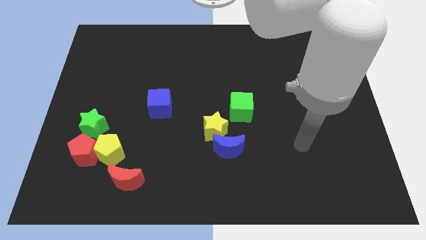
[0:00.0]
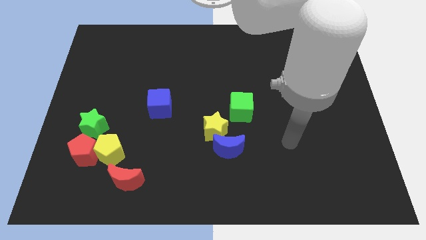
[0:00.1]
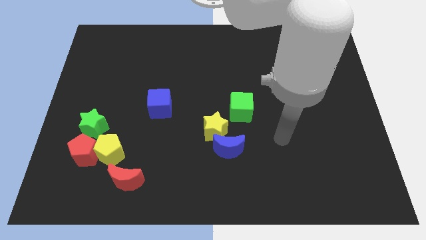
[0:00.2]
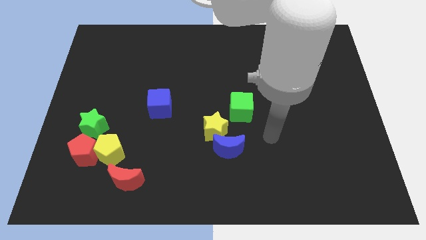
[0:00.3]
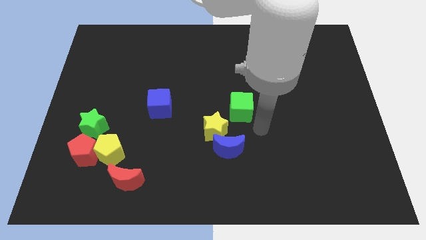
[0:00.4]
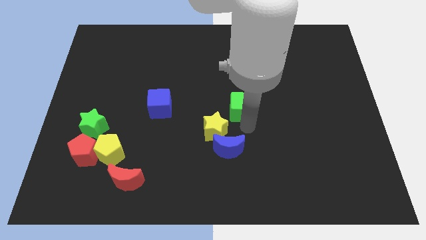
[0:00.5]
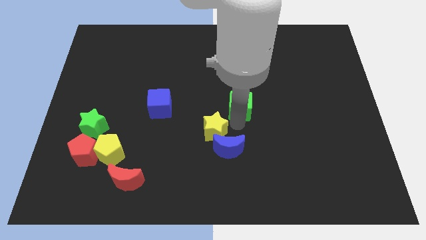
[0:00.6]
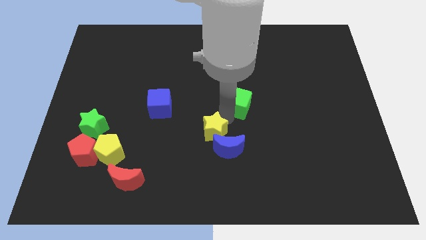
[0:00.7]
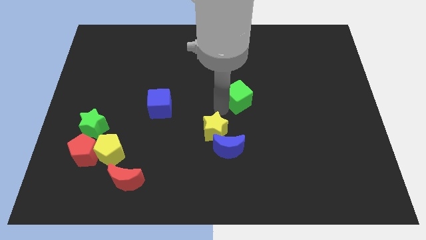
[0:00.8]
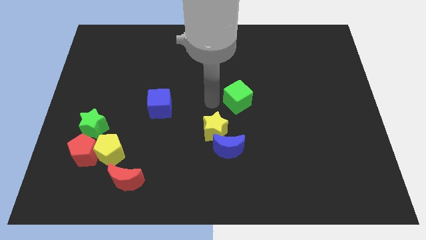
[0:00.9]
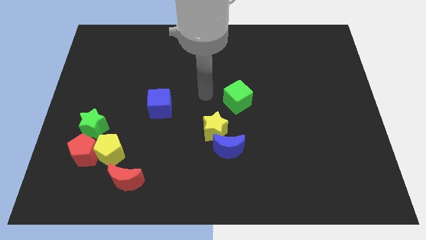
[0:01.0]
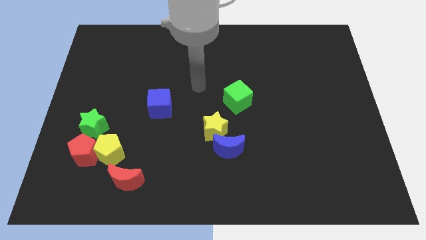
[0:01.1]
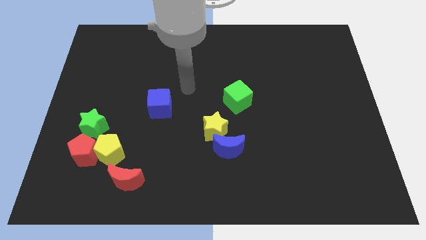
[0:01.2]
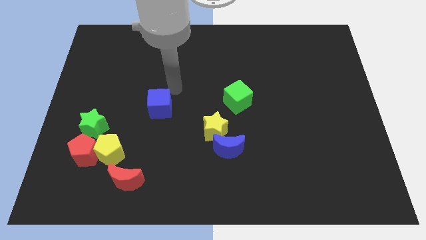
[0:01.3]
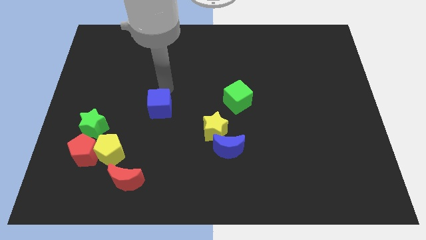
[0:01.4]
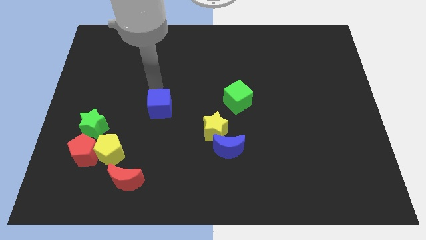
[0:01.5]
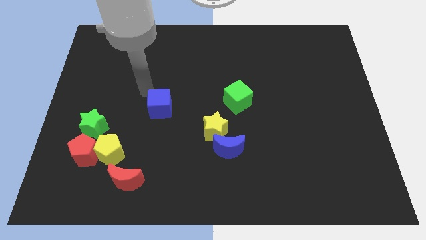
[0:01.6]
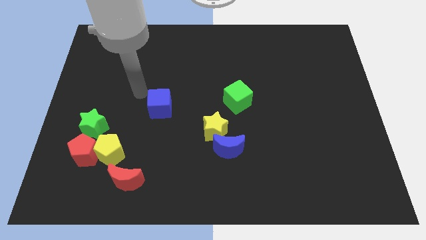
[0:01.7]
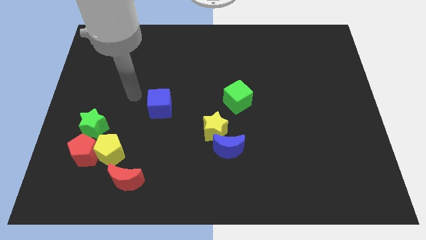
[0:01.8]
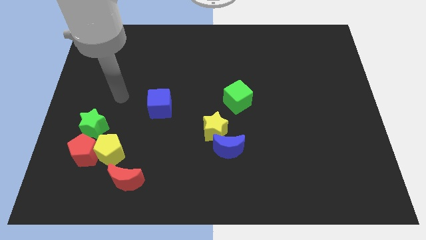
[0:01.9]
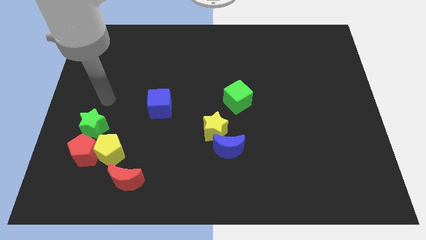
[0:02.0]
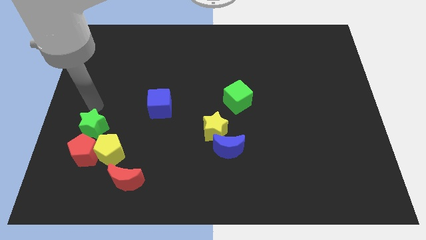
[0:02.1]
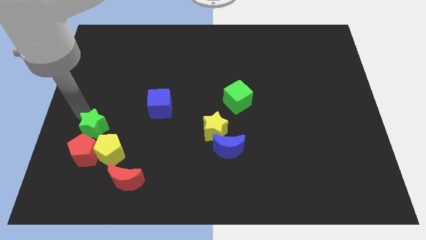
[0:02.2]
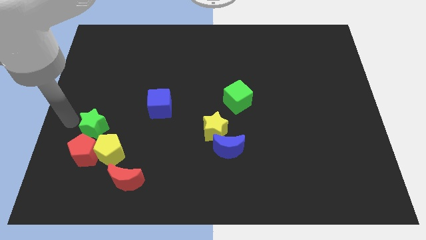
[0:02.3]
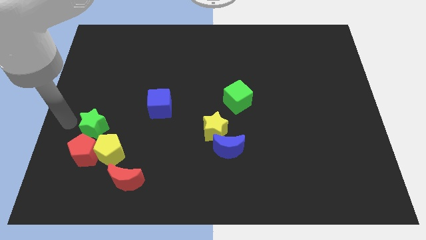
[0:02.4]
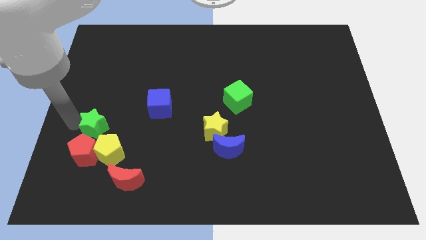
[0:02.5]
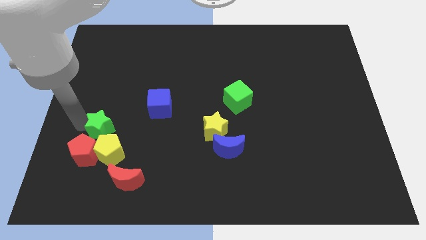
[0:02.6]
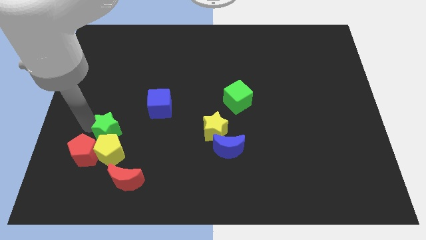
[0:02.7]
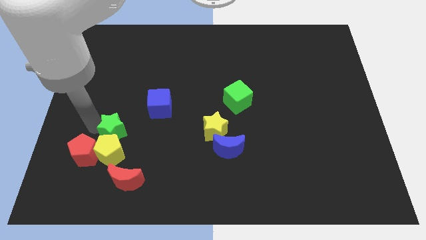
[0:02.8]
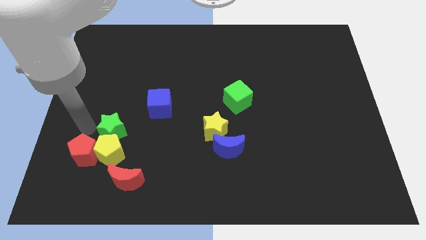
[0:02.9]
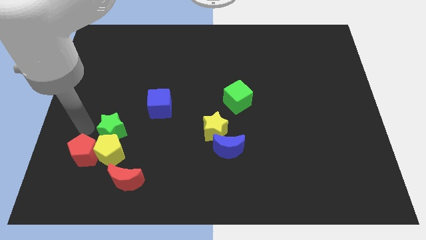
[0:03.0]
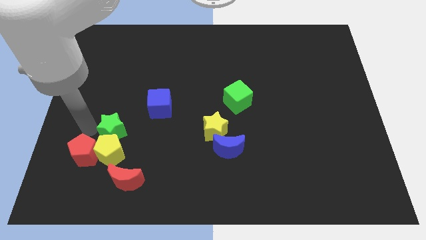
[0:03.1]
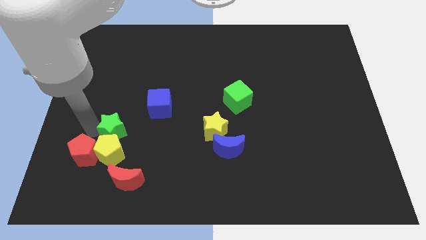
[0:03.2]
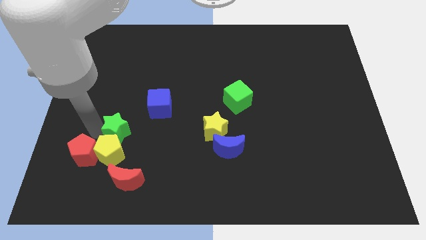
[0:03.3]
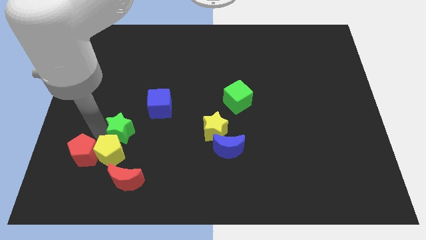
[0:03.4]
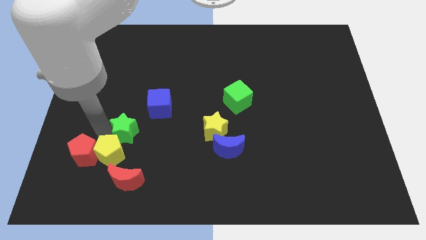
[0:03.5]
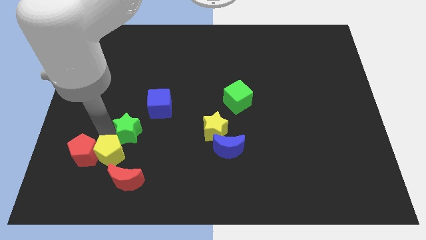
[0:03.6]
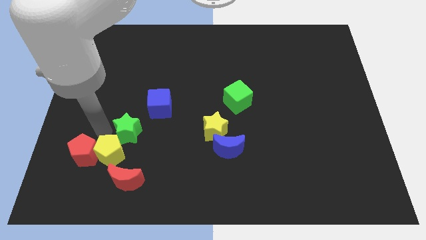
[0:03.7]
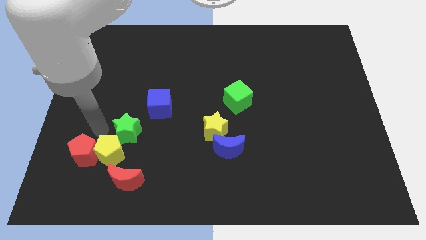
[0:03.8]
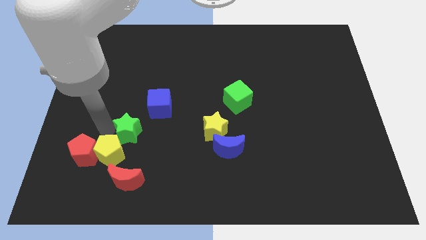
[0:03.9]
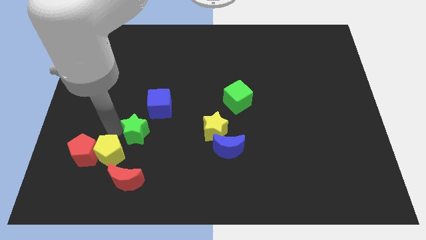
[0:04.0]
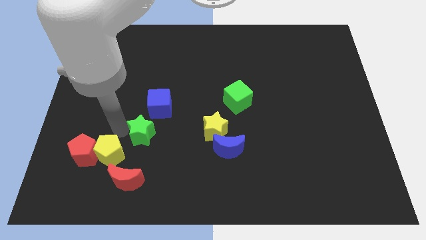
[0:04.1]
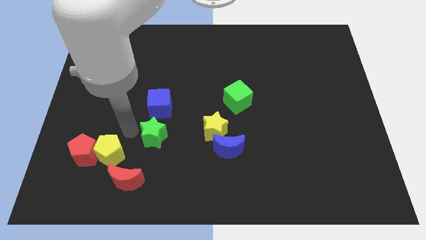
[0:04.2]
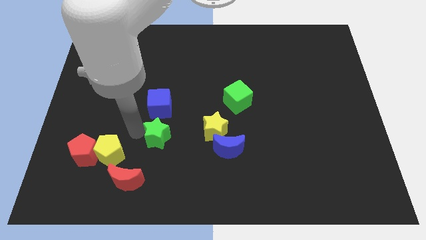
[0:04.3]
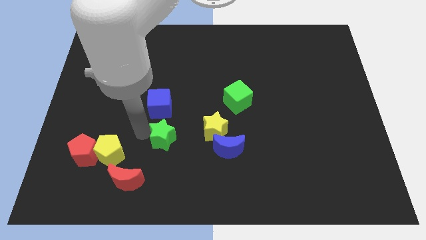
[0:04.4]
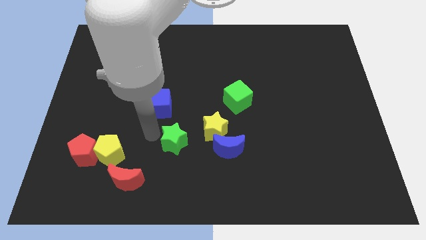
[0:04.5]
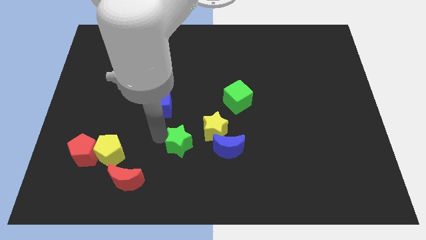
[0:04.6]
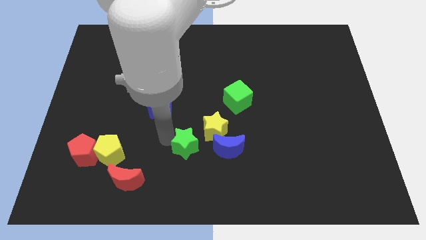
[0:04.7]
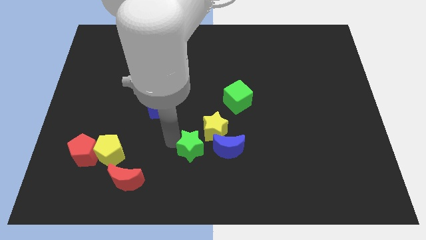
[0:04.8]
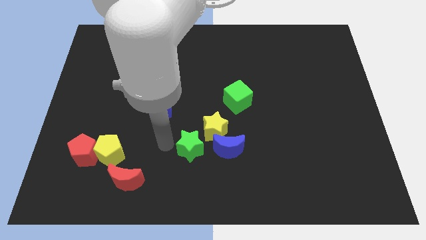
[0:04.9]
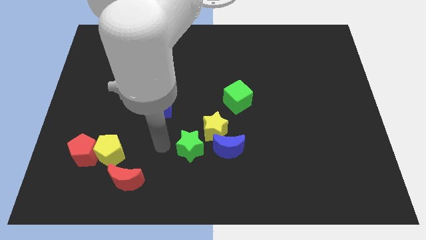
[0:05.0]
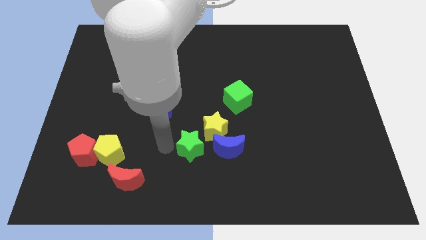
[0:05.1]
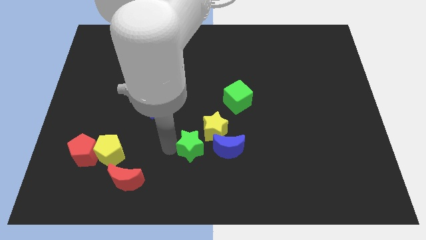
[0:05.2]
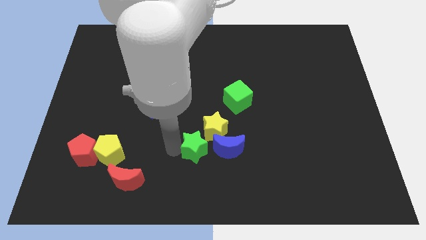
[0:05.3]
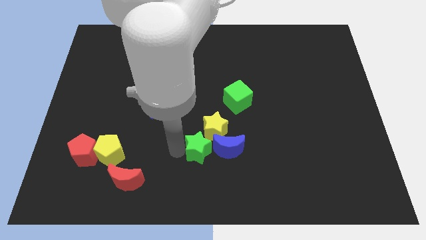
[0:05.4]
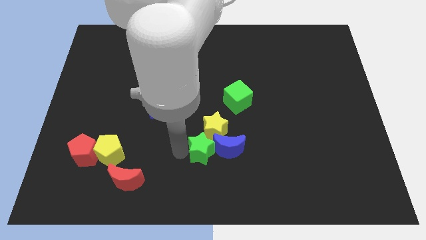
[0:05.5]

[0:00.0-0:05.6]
move the green star towards the blue moon

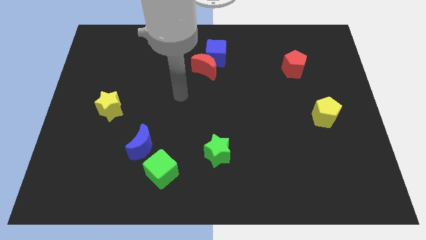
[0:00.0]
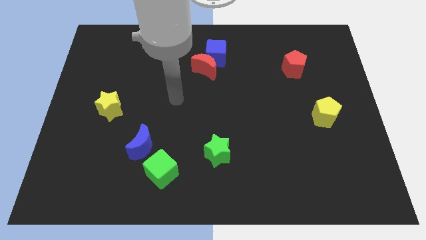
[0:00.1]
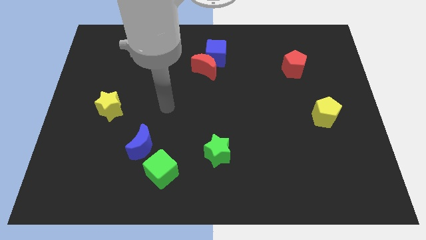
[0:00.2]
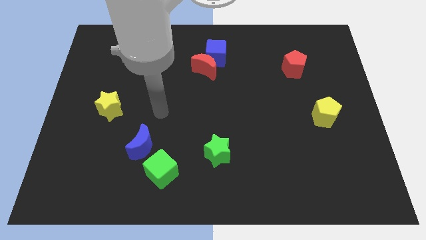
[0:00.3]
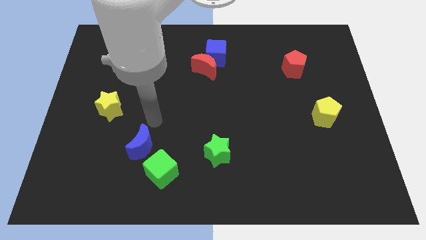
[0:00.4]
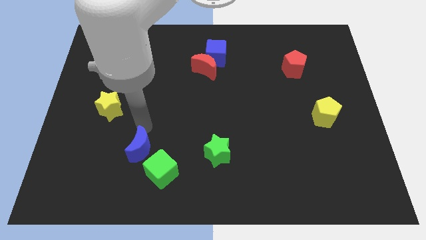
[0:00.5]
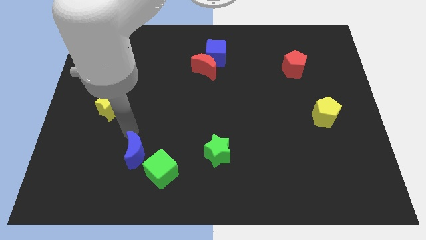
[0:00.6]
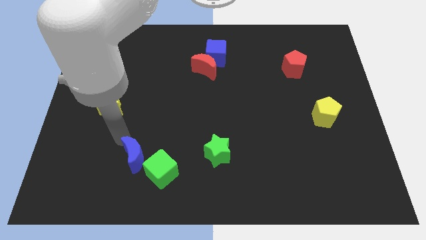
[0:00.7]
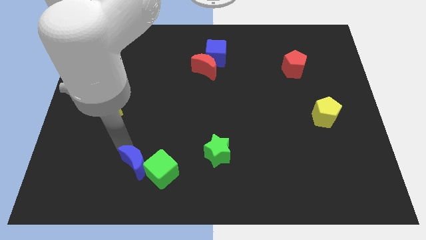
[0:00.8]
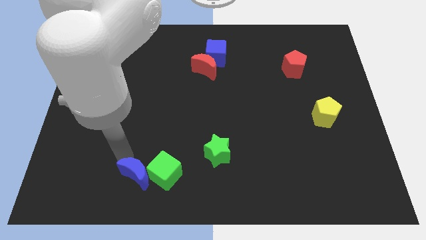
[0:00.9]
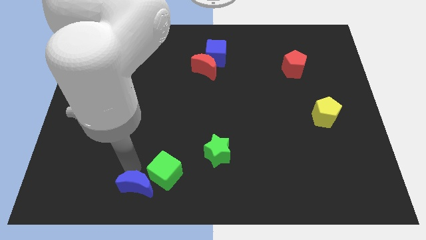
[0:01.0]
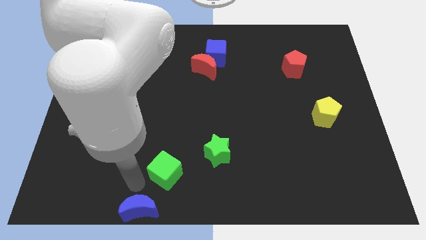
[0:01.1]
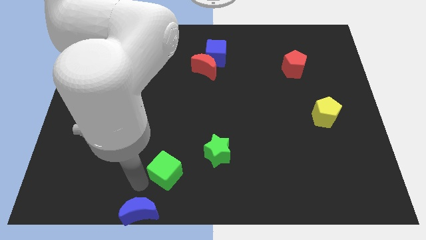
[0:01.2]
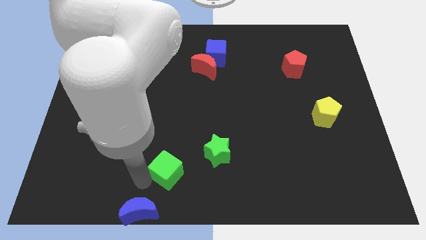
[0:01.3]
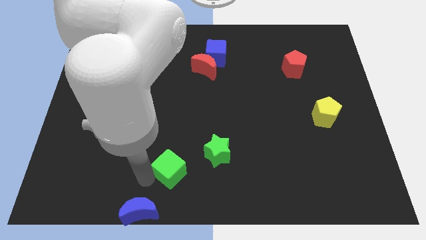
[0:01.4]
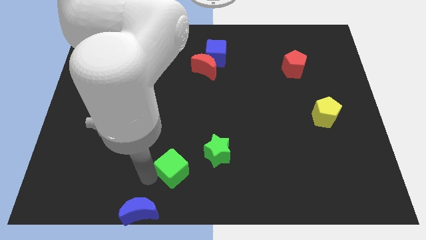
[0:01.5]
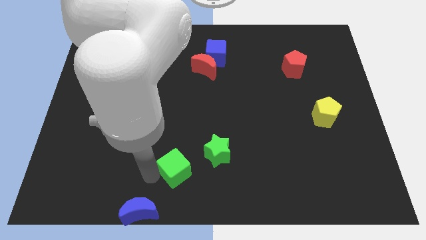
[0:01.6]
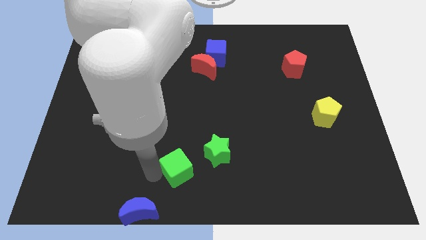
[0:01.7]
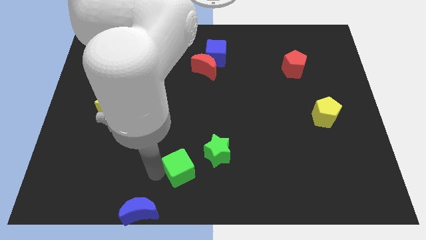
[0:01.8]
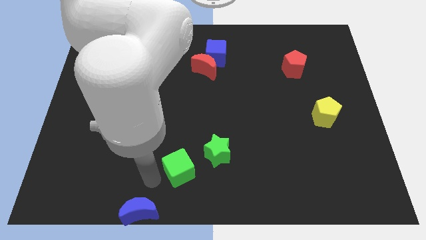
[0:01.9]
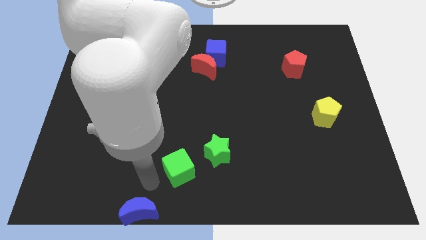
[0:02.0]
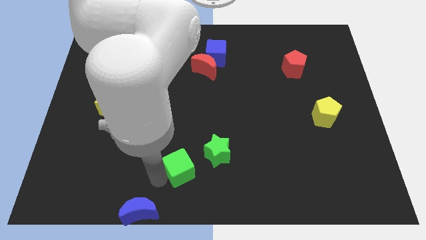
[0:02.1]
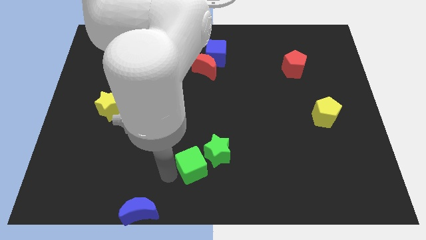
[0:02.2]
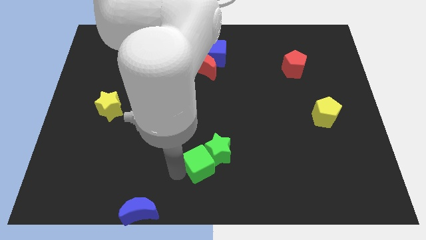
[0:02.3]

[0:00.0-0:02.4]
put the green cube to the green star
